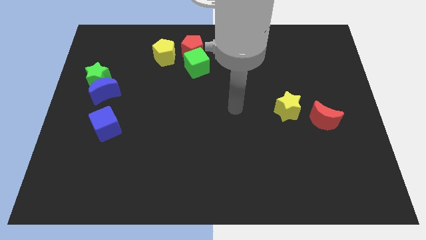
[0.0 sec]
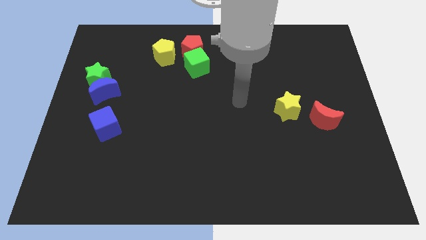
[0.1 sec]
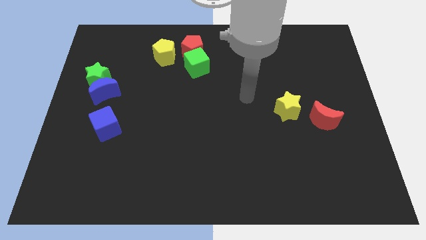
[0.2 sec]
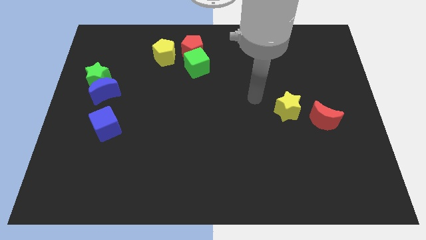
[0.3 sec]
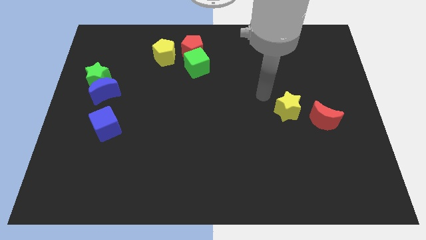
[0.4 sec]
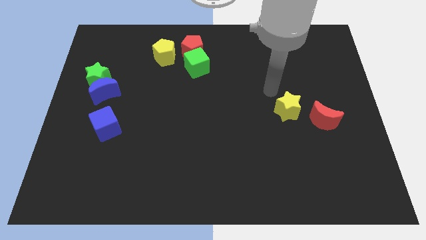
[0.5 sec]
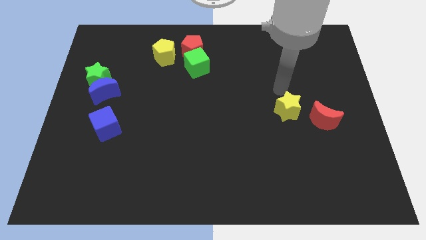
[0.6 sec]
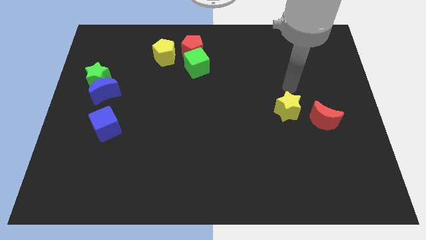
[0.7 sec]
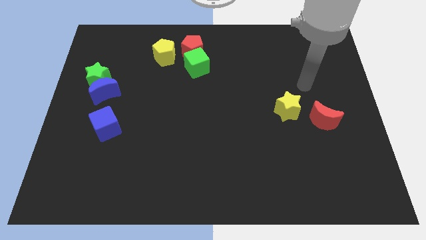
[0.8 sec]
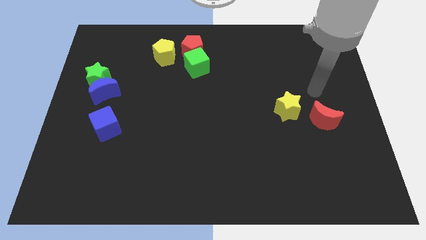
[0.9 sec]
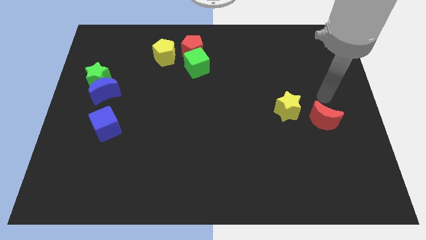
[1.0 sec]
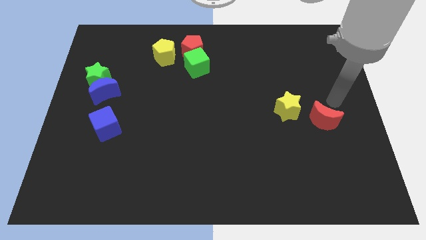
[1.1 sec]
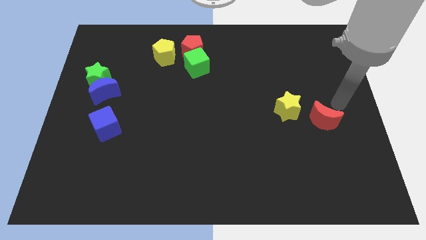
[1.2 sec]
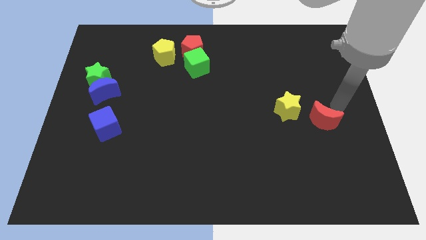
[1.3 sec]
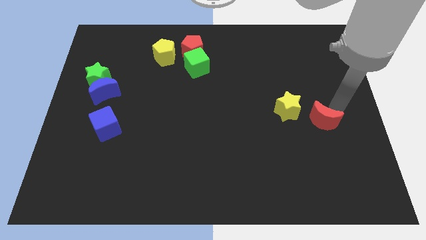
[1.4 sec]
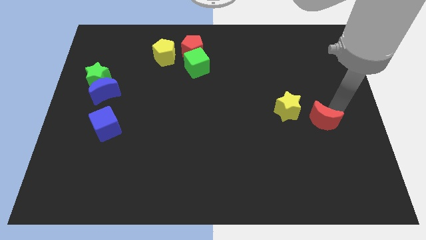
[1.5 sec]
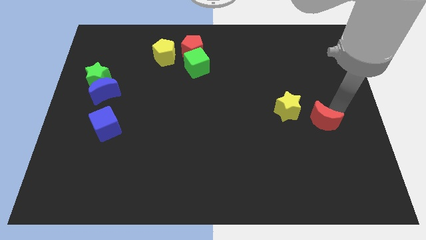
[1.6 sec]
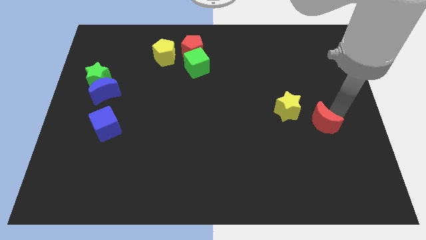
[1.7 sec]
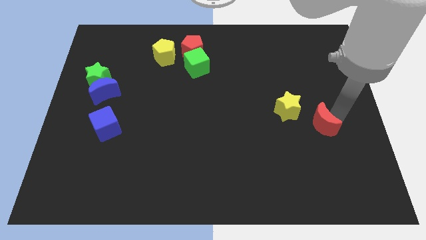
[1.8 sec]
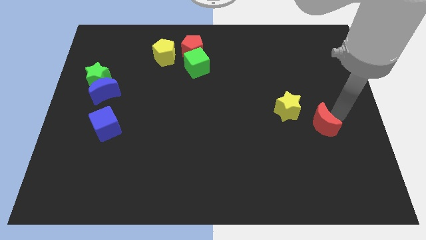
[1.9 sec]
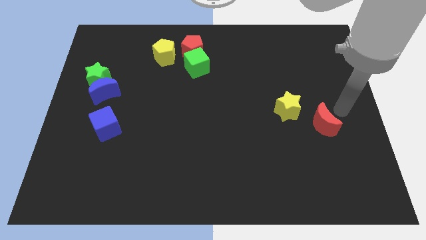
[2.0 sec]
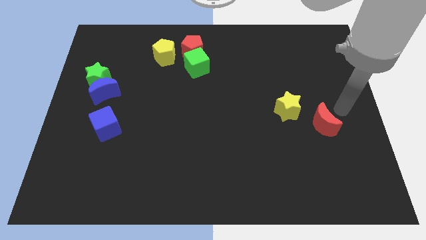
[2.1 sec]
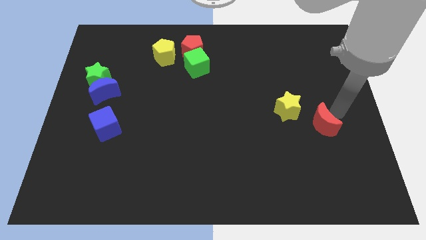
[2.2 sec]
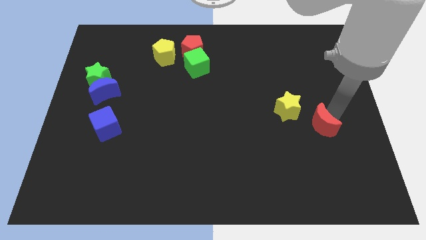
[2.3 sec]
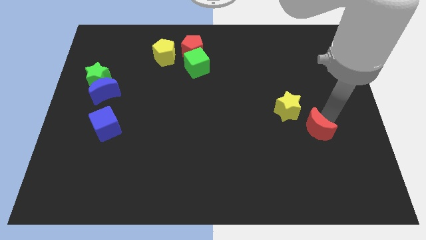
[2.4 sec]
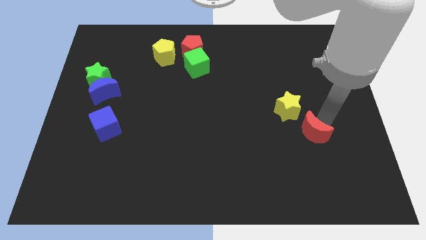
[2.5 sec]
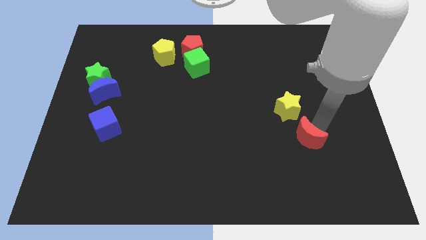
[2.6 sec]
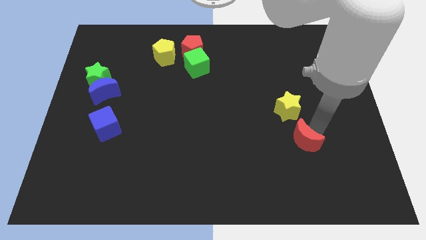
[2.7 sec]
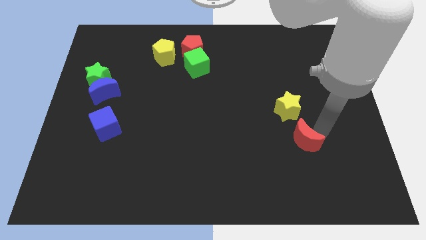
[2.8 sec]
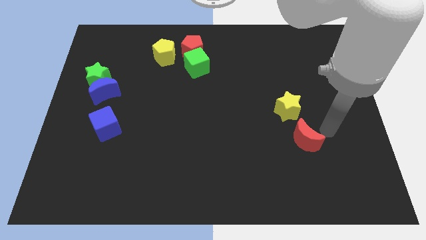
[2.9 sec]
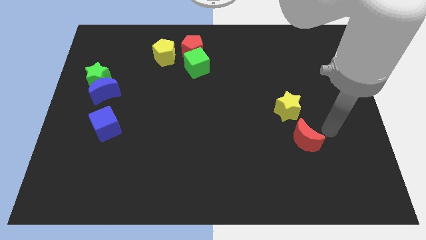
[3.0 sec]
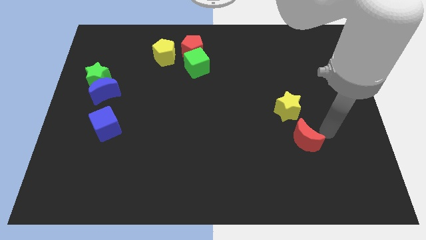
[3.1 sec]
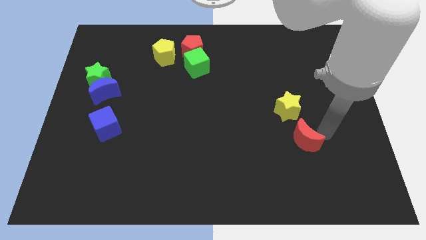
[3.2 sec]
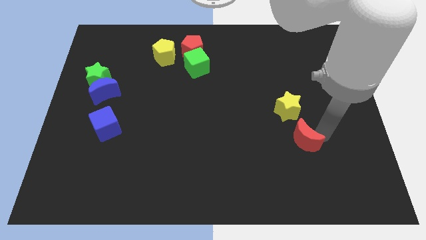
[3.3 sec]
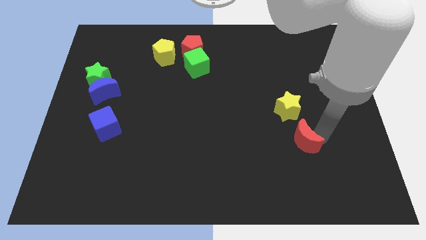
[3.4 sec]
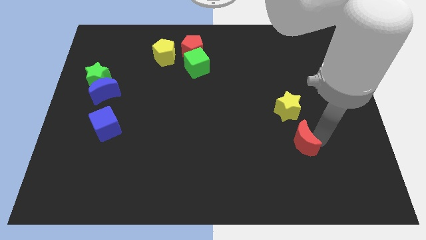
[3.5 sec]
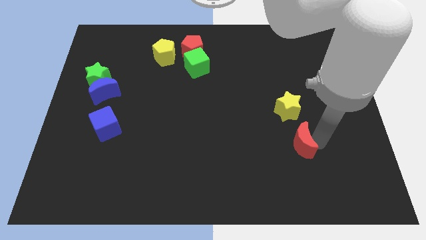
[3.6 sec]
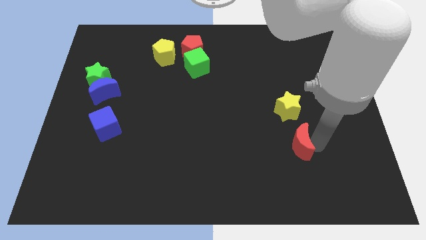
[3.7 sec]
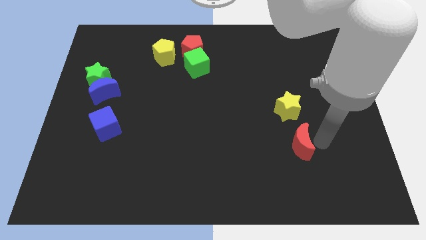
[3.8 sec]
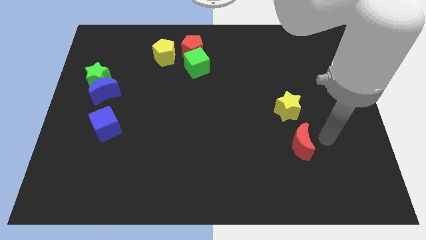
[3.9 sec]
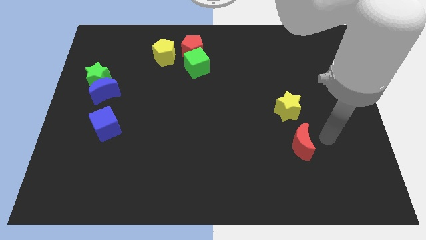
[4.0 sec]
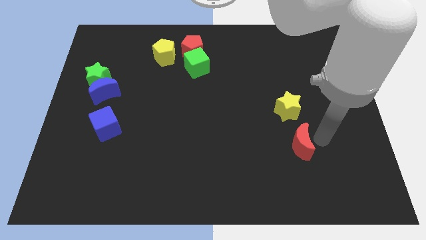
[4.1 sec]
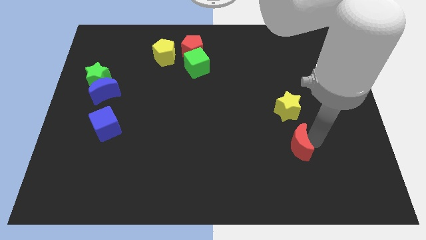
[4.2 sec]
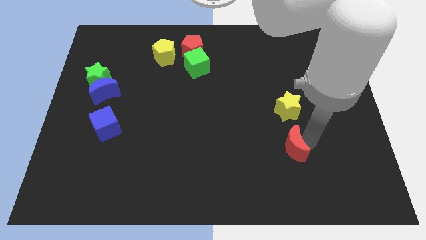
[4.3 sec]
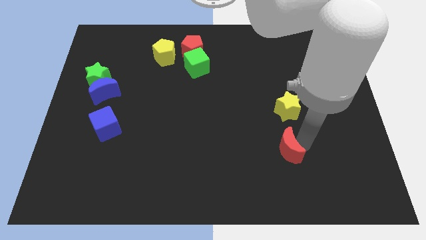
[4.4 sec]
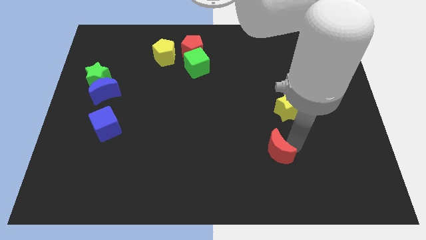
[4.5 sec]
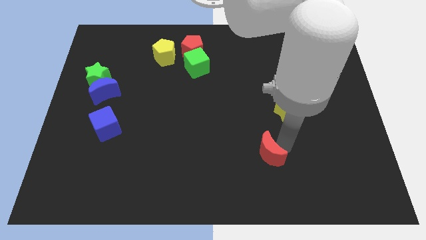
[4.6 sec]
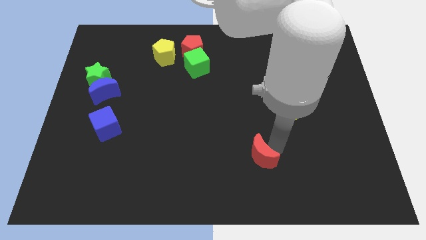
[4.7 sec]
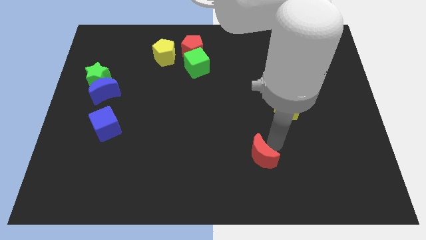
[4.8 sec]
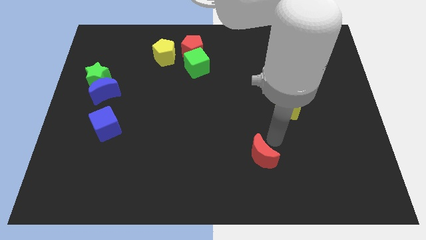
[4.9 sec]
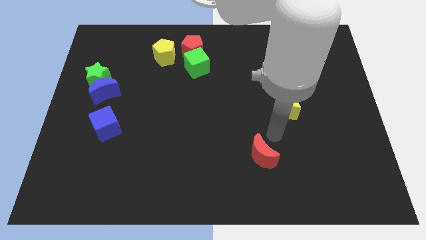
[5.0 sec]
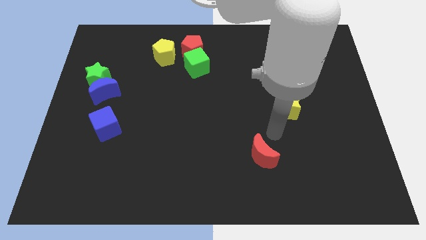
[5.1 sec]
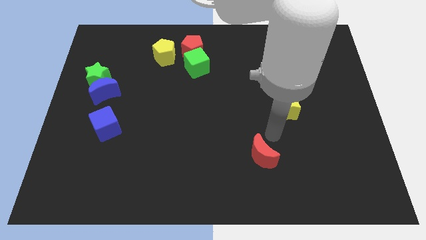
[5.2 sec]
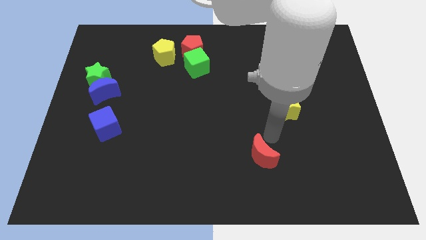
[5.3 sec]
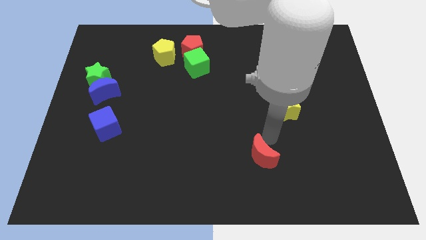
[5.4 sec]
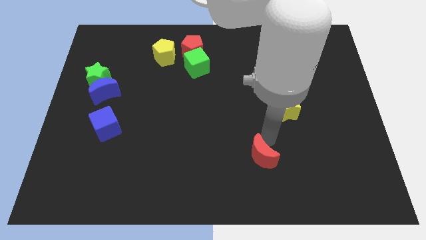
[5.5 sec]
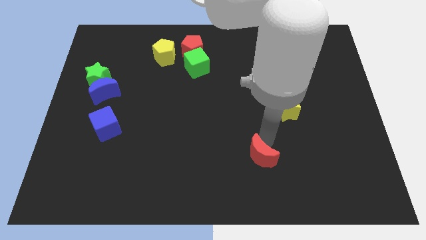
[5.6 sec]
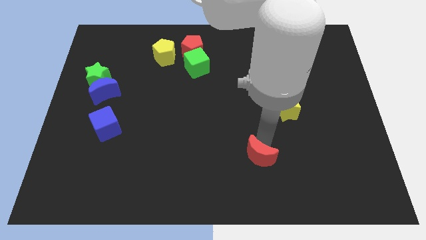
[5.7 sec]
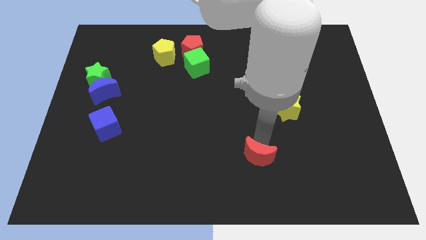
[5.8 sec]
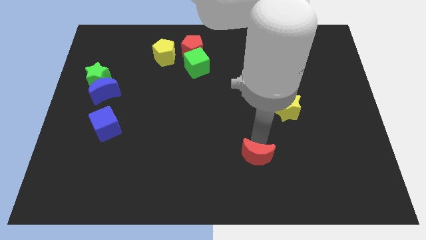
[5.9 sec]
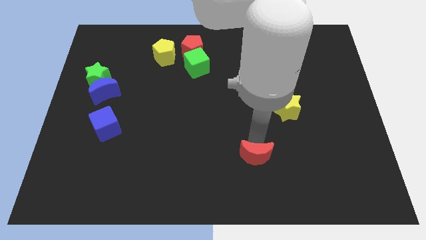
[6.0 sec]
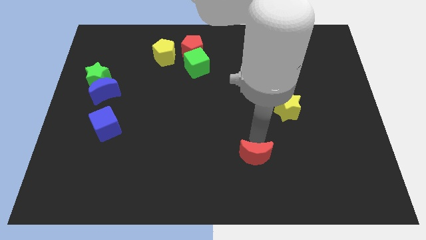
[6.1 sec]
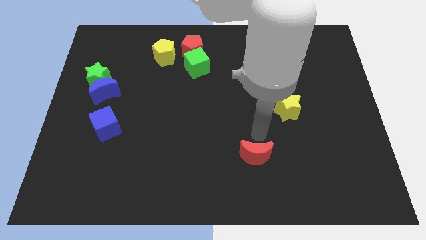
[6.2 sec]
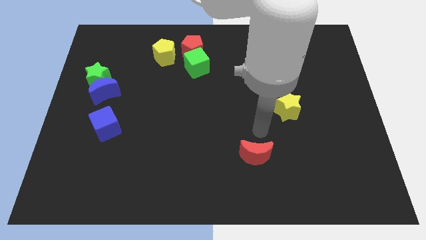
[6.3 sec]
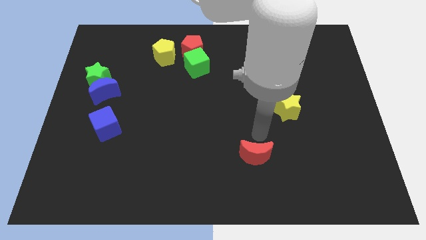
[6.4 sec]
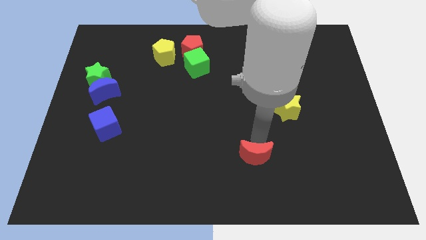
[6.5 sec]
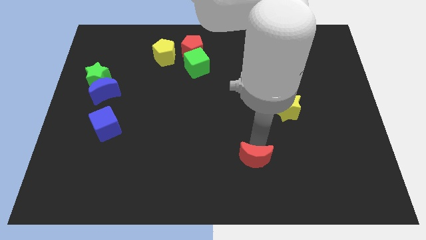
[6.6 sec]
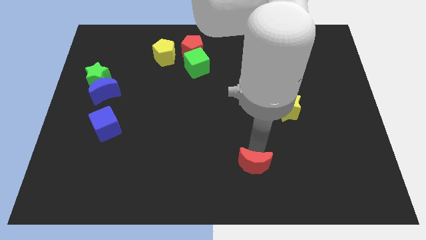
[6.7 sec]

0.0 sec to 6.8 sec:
put the red moon to the bottom
